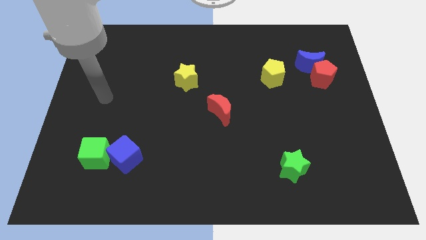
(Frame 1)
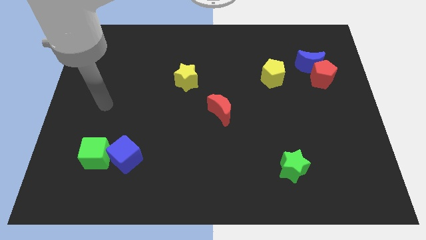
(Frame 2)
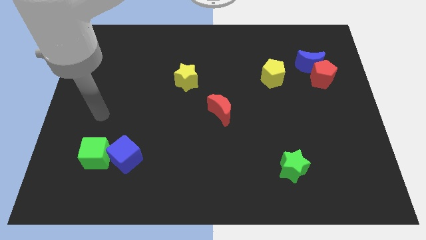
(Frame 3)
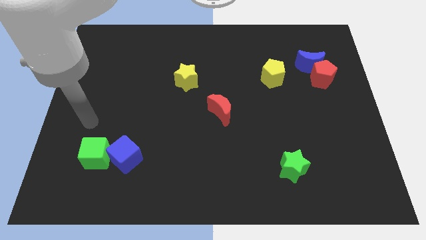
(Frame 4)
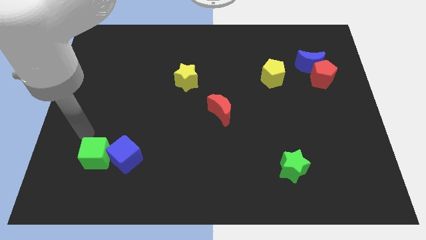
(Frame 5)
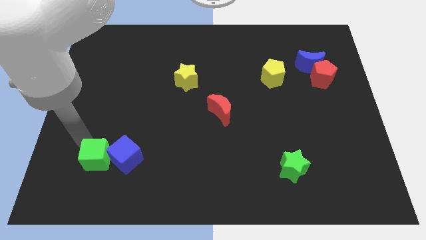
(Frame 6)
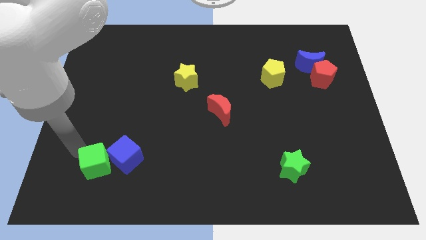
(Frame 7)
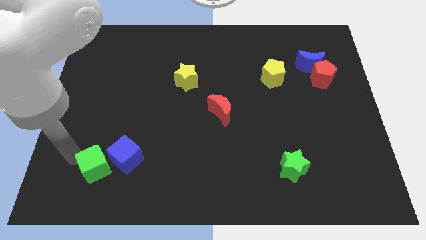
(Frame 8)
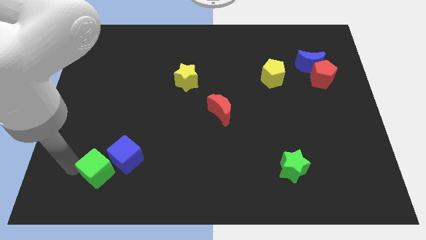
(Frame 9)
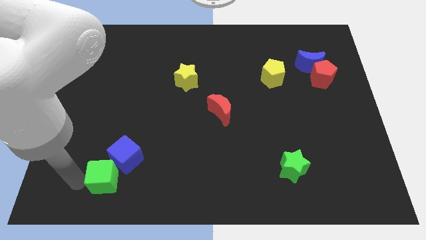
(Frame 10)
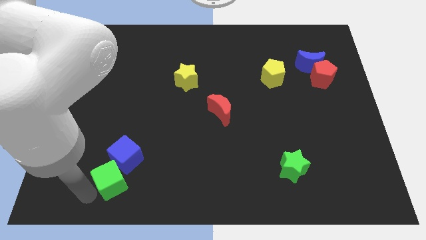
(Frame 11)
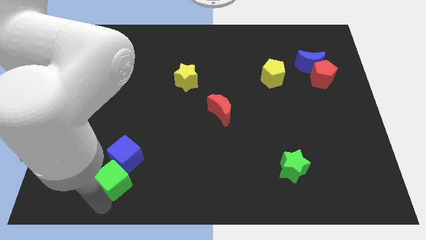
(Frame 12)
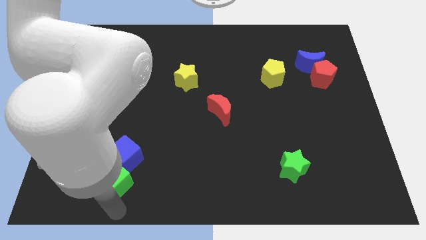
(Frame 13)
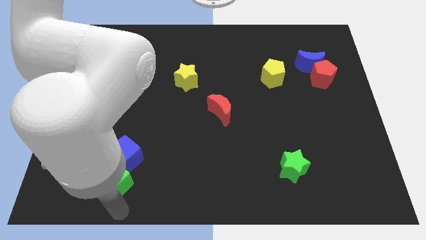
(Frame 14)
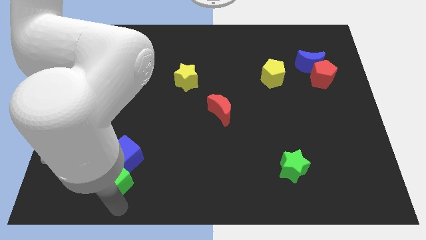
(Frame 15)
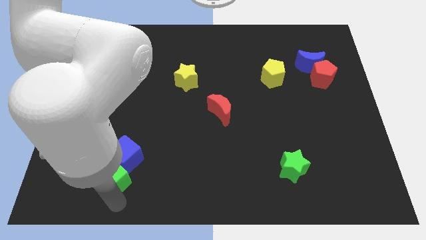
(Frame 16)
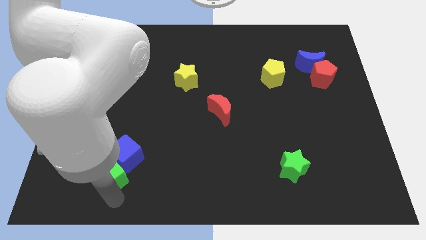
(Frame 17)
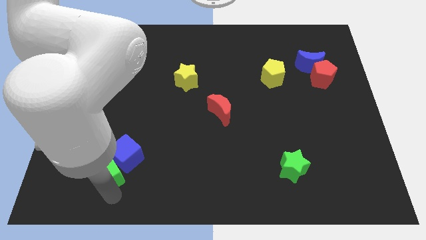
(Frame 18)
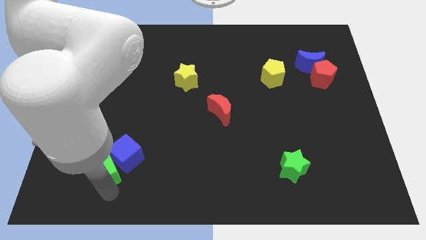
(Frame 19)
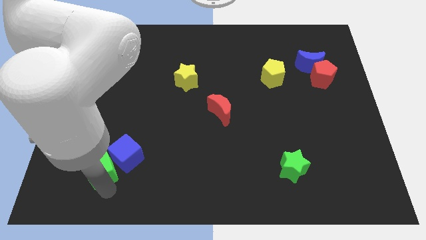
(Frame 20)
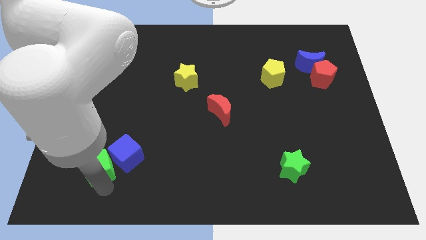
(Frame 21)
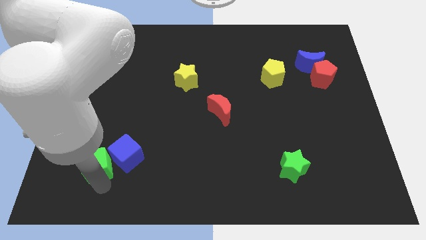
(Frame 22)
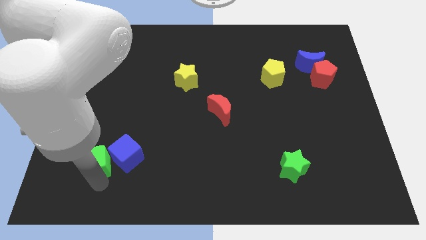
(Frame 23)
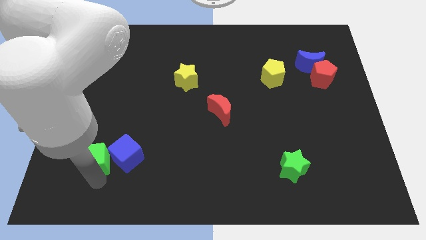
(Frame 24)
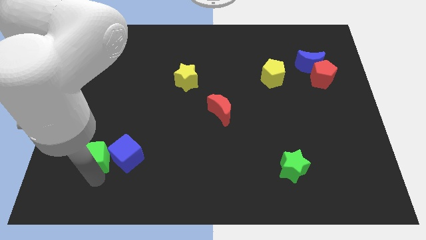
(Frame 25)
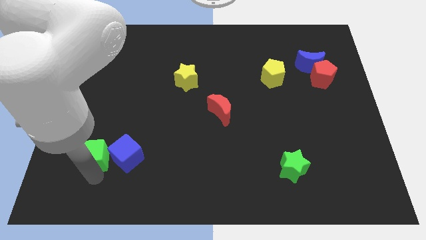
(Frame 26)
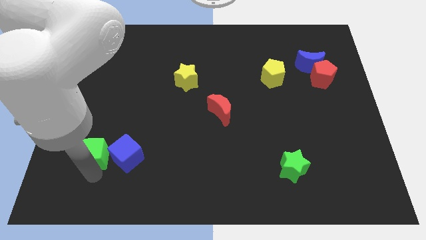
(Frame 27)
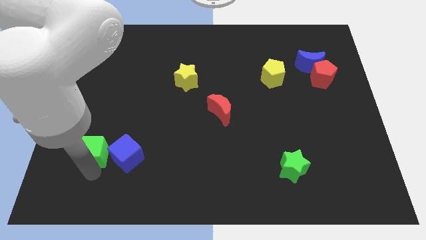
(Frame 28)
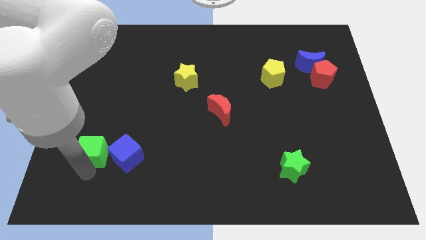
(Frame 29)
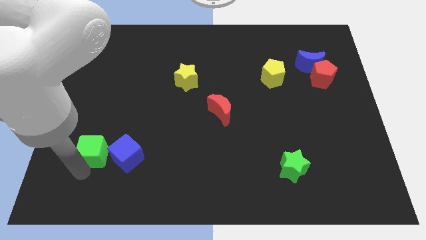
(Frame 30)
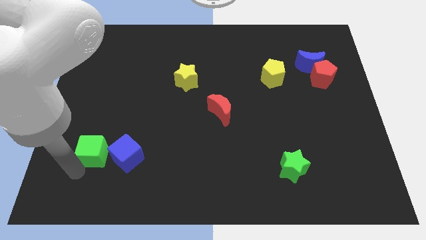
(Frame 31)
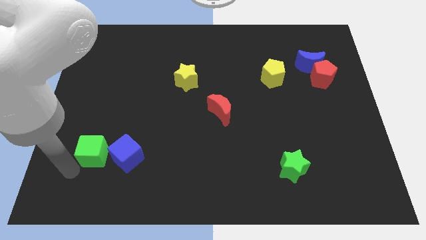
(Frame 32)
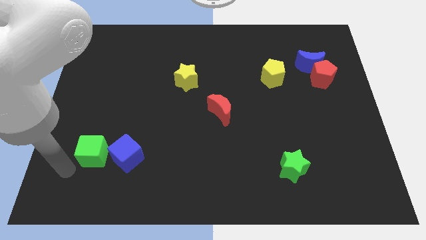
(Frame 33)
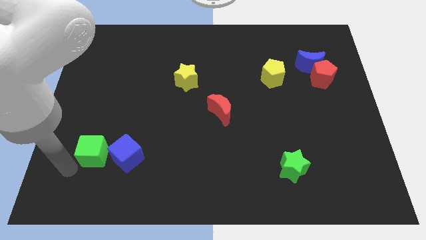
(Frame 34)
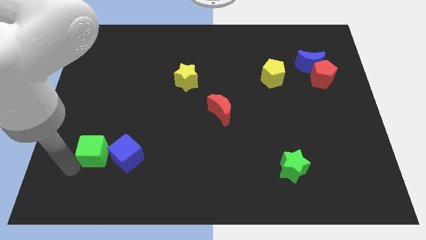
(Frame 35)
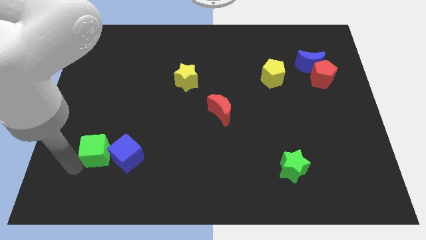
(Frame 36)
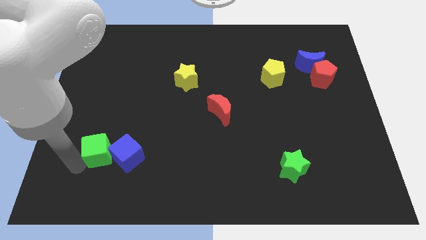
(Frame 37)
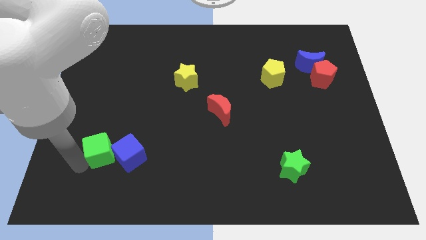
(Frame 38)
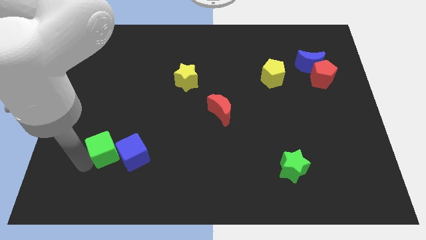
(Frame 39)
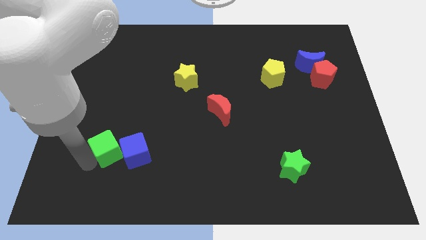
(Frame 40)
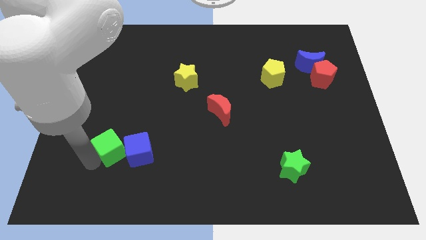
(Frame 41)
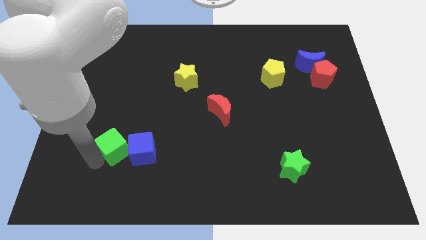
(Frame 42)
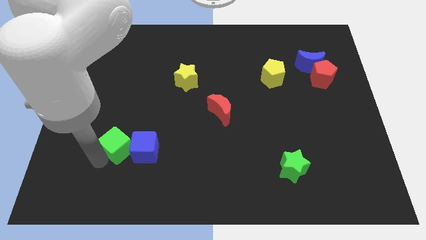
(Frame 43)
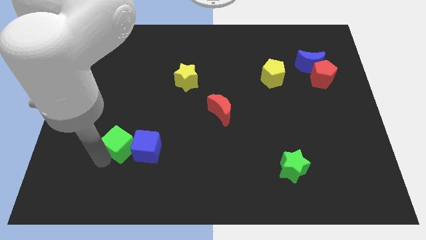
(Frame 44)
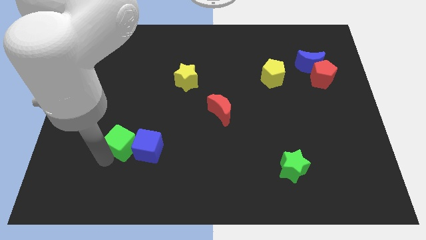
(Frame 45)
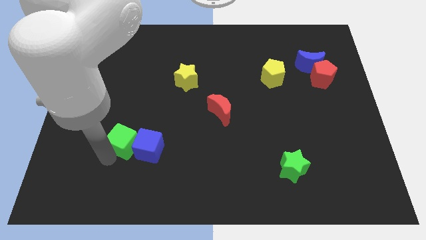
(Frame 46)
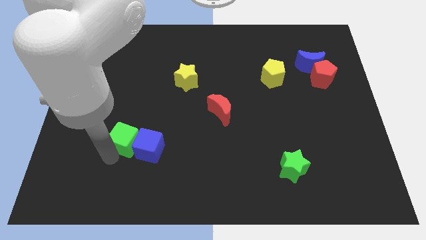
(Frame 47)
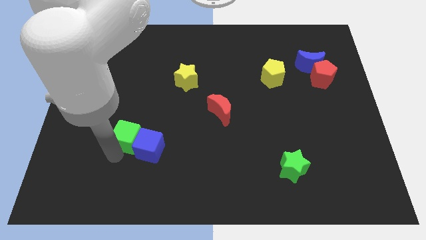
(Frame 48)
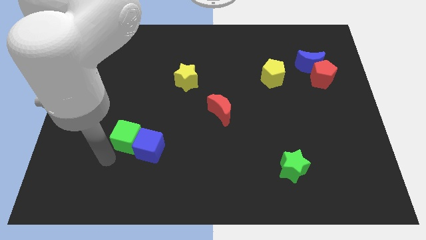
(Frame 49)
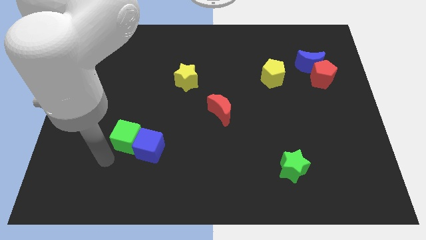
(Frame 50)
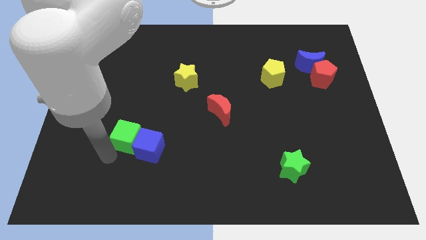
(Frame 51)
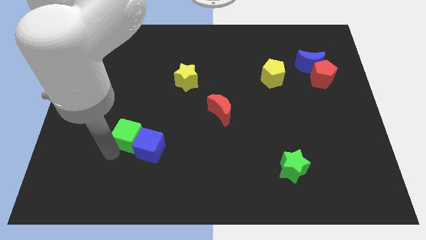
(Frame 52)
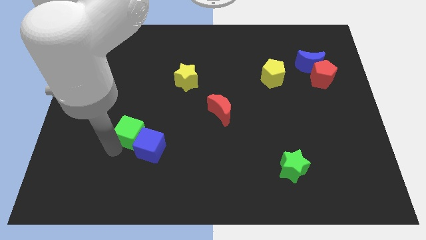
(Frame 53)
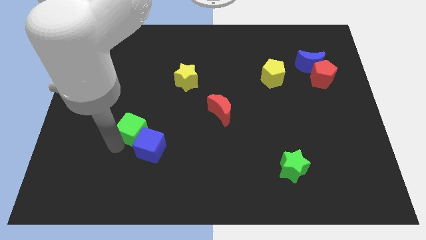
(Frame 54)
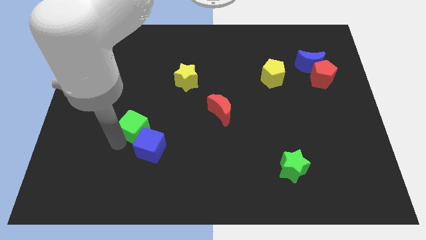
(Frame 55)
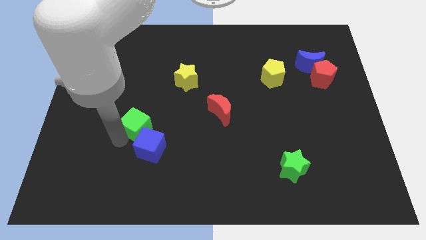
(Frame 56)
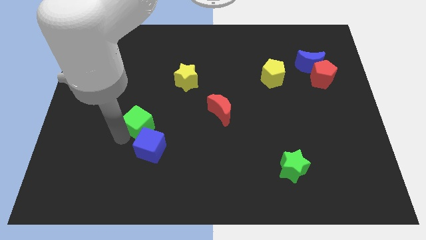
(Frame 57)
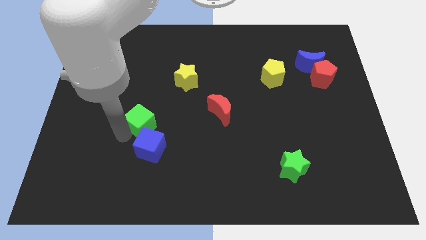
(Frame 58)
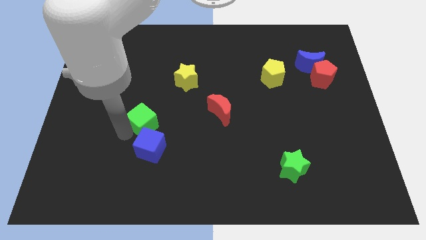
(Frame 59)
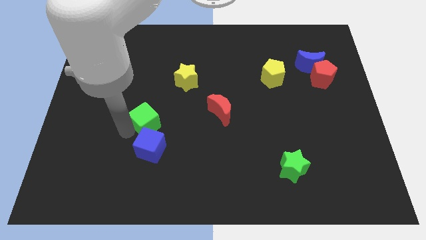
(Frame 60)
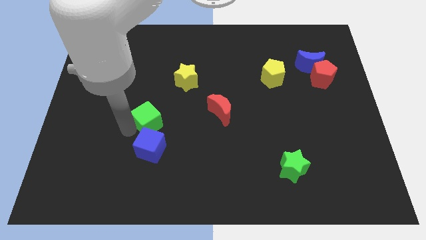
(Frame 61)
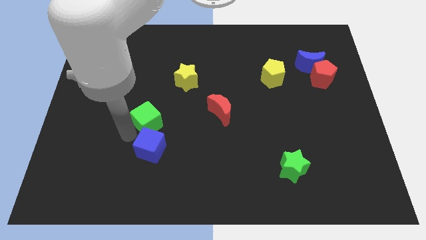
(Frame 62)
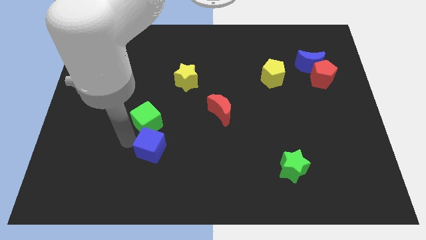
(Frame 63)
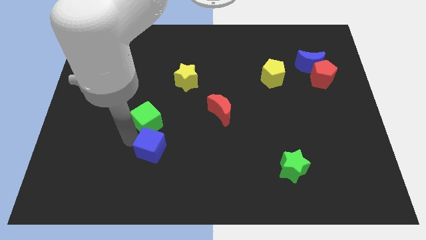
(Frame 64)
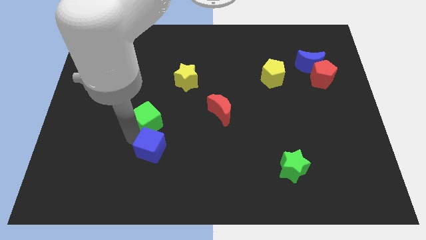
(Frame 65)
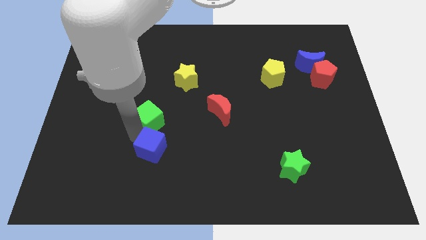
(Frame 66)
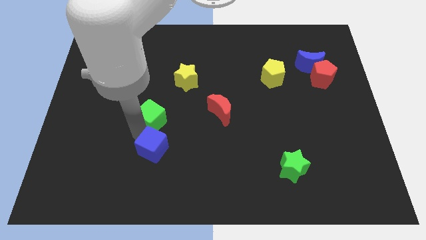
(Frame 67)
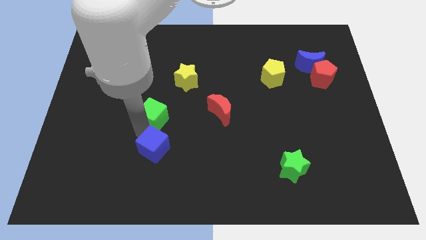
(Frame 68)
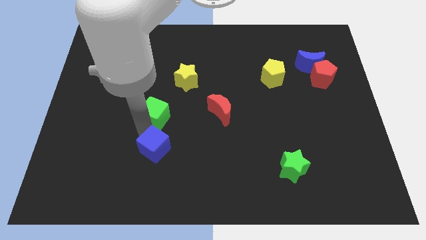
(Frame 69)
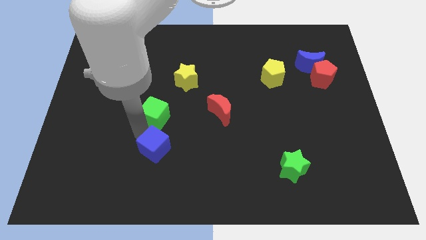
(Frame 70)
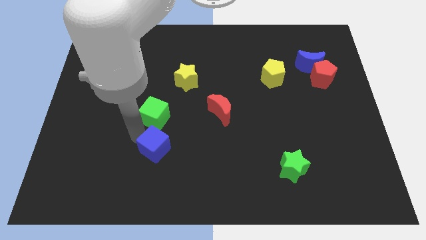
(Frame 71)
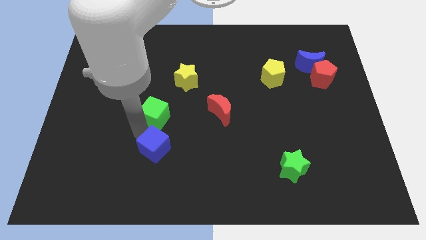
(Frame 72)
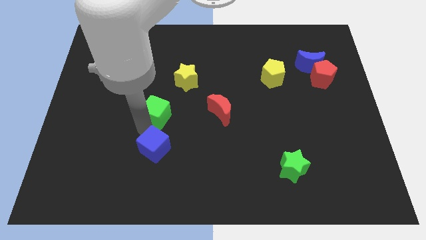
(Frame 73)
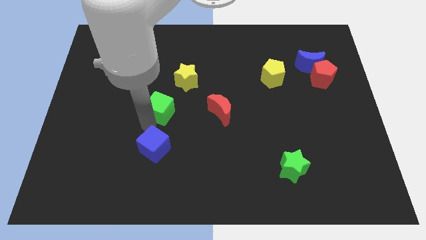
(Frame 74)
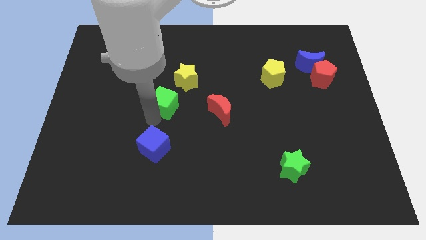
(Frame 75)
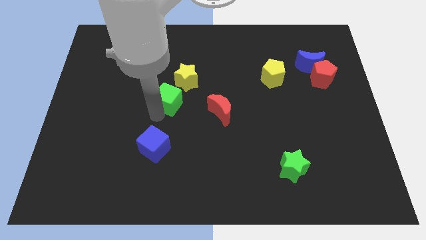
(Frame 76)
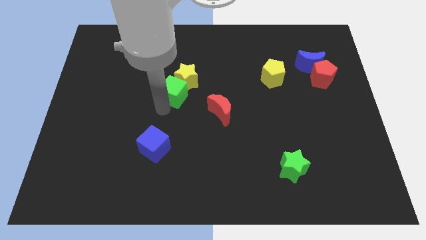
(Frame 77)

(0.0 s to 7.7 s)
move the green cube close to the yellow star

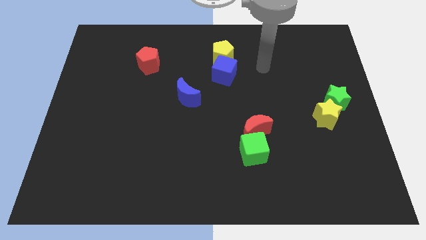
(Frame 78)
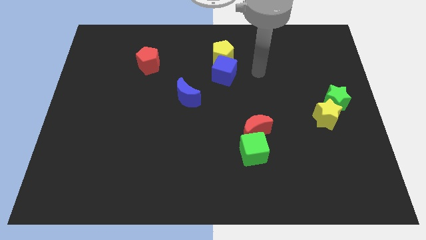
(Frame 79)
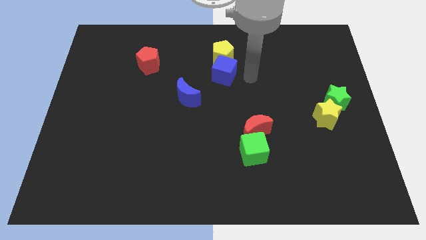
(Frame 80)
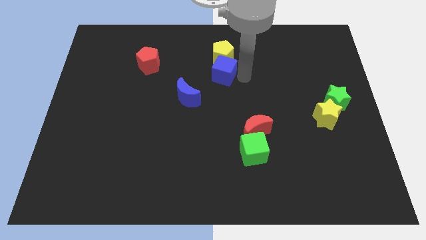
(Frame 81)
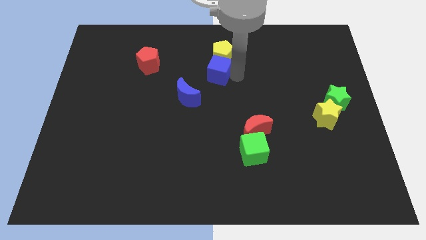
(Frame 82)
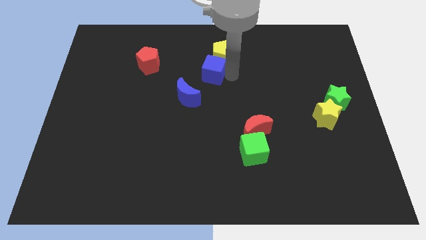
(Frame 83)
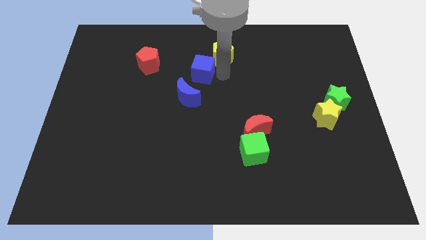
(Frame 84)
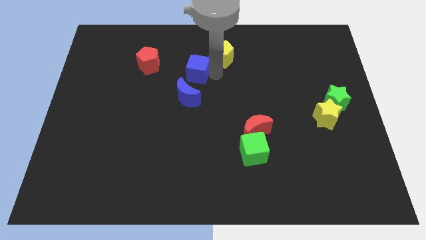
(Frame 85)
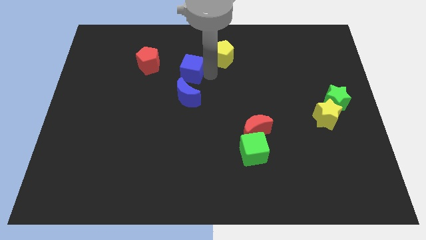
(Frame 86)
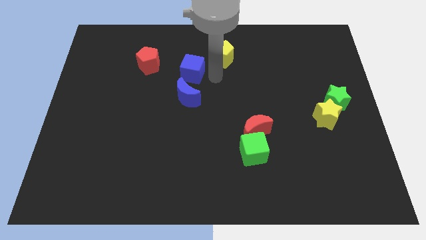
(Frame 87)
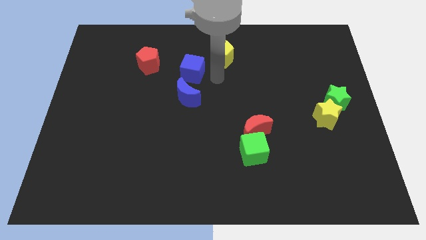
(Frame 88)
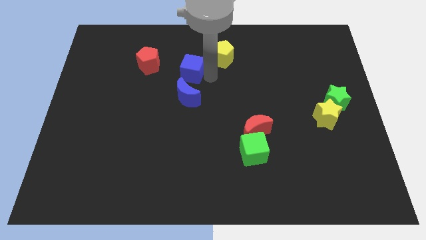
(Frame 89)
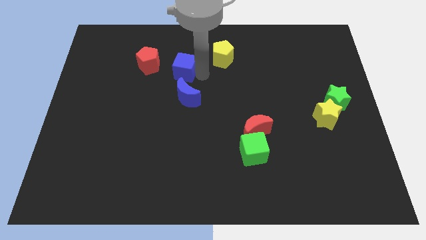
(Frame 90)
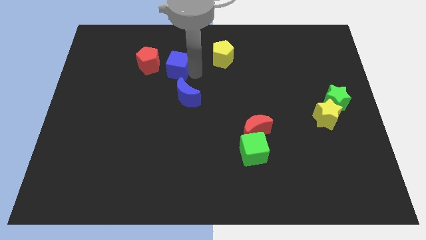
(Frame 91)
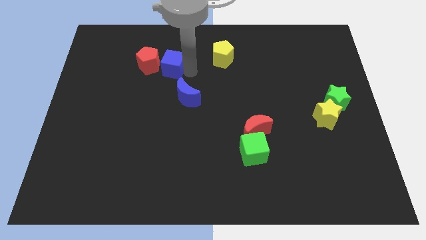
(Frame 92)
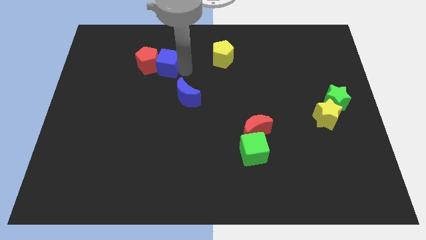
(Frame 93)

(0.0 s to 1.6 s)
slide the blue cube towards the red pentagon
